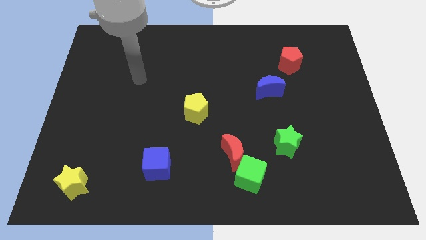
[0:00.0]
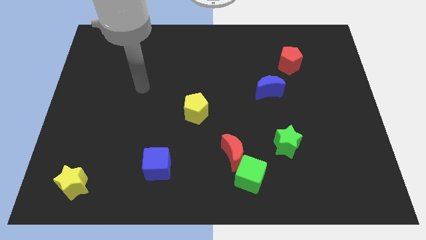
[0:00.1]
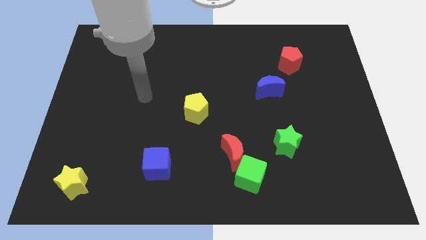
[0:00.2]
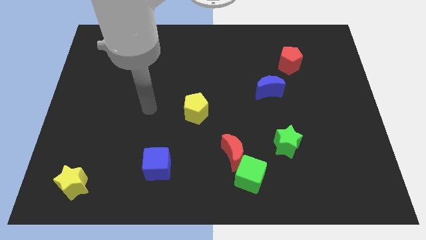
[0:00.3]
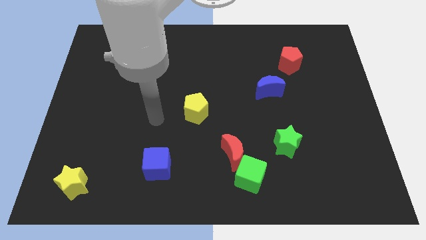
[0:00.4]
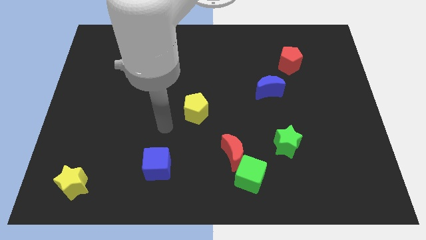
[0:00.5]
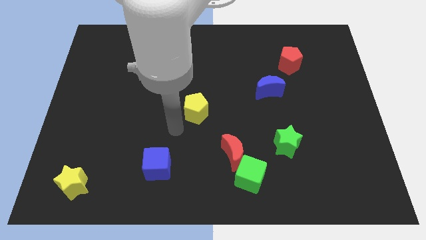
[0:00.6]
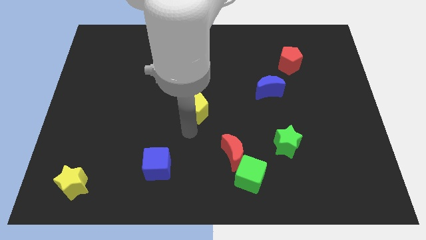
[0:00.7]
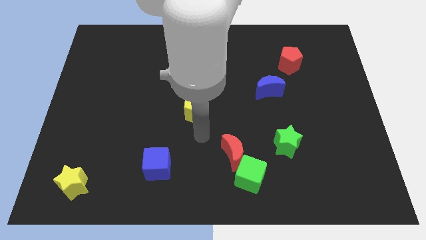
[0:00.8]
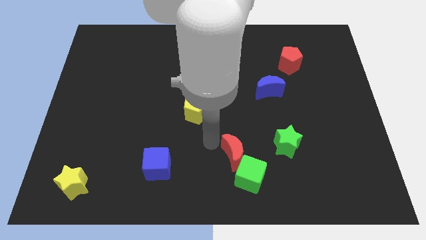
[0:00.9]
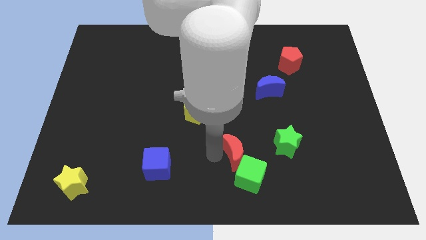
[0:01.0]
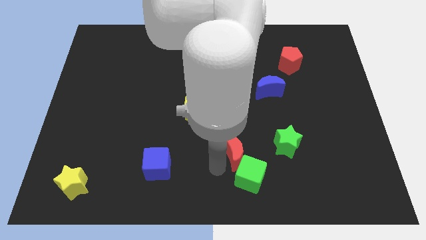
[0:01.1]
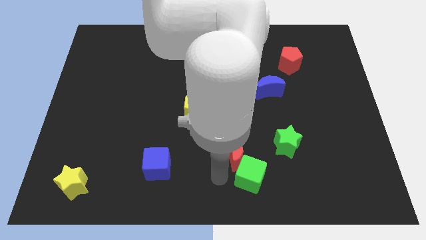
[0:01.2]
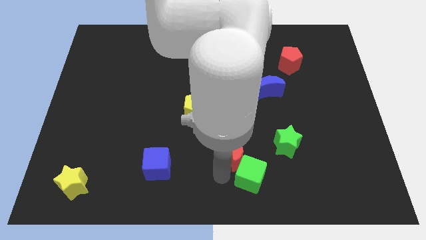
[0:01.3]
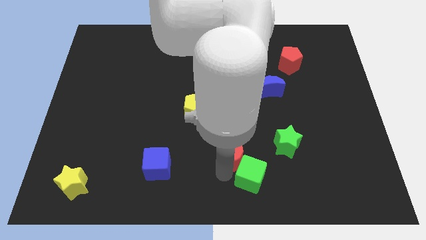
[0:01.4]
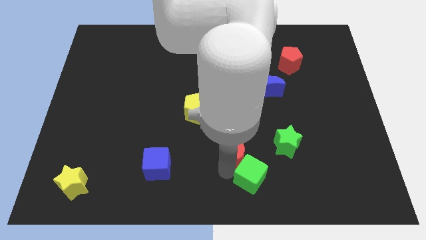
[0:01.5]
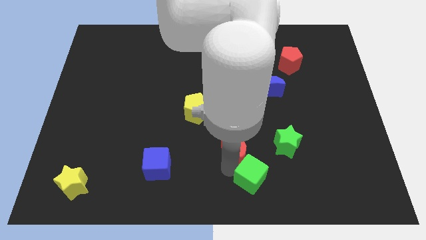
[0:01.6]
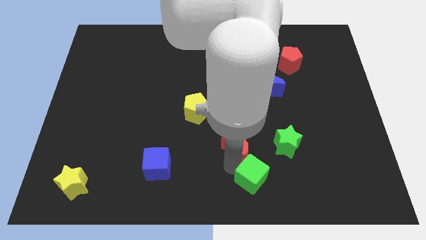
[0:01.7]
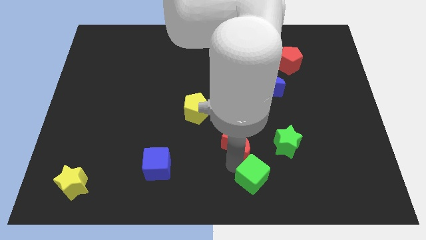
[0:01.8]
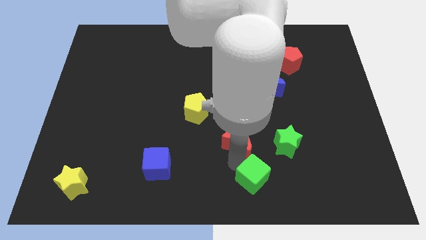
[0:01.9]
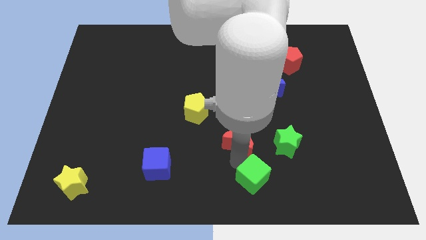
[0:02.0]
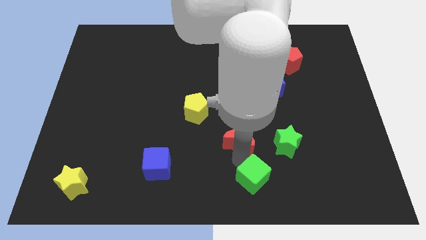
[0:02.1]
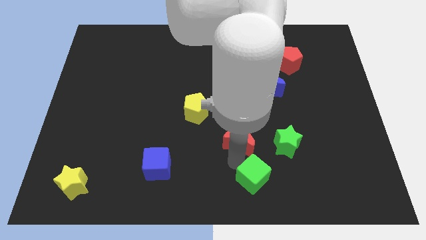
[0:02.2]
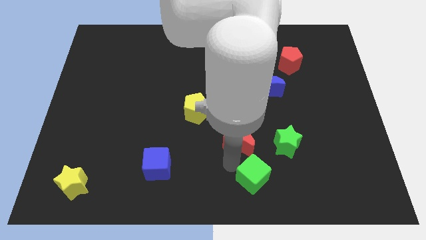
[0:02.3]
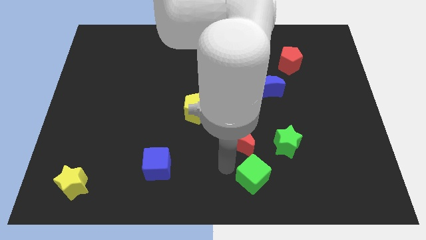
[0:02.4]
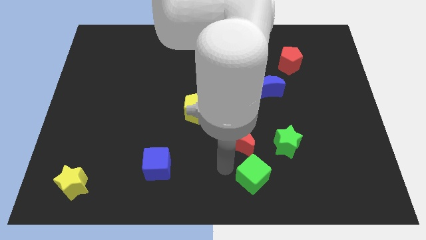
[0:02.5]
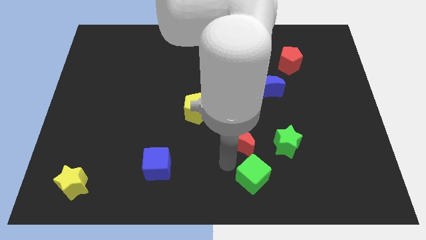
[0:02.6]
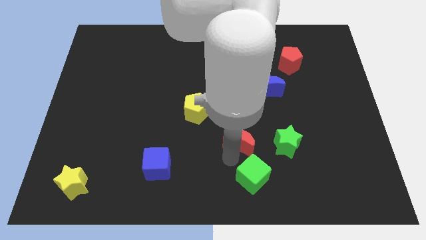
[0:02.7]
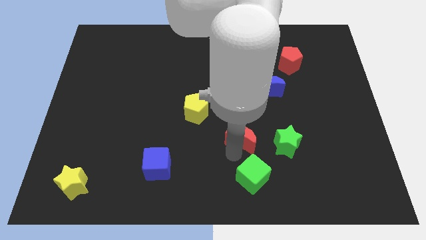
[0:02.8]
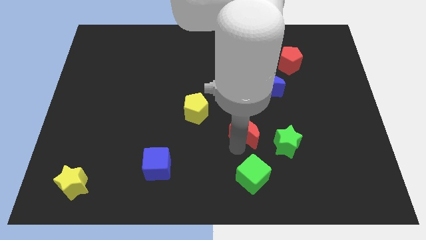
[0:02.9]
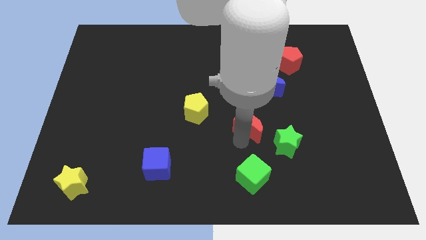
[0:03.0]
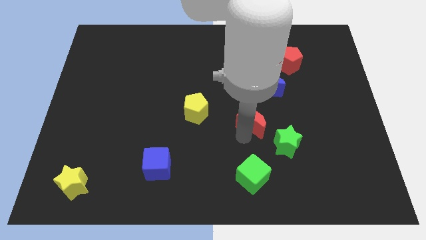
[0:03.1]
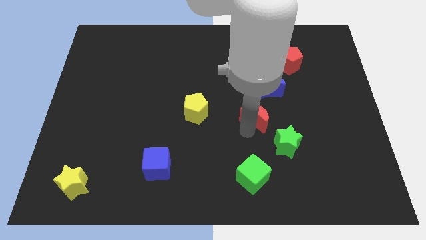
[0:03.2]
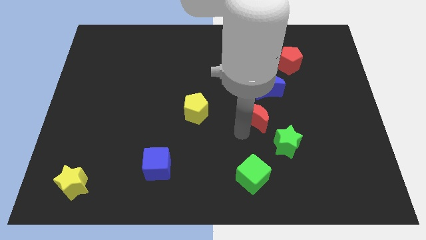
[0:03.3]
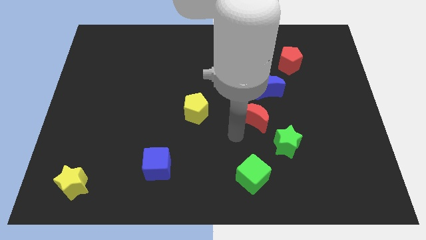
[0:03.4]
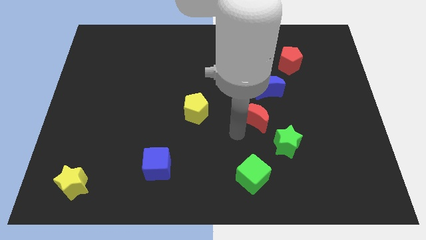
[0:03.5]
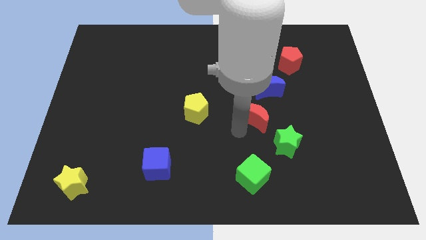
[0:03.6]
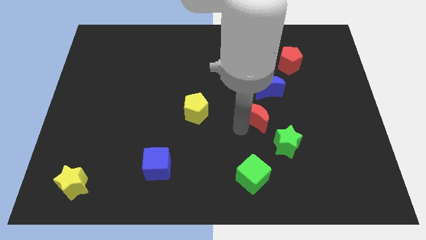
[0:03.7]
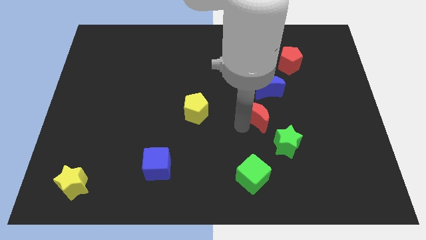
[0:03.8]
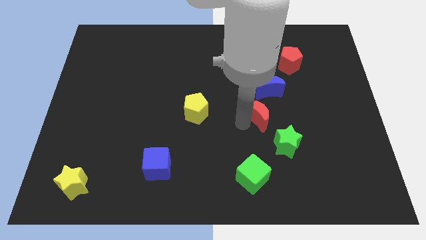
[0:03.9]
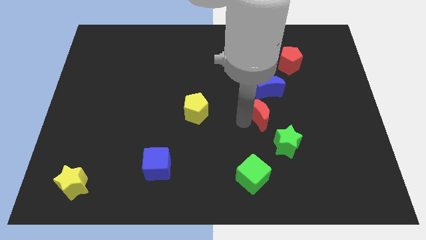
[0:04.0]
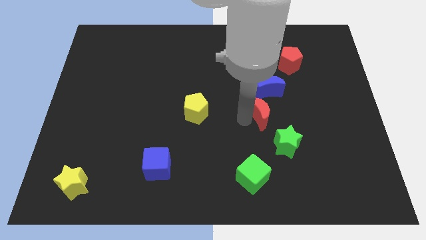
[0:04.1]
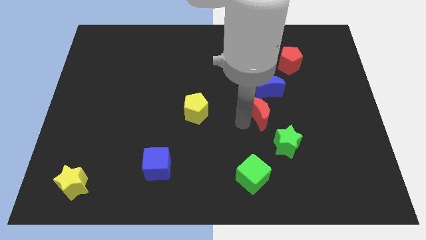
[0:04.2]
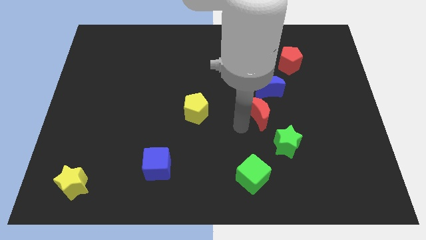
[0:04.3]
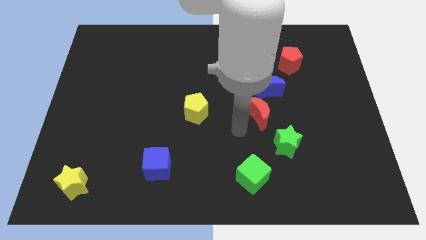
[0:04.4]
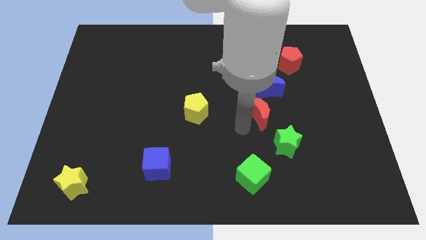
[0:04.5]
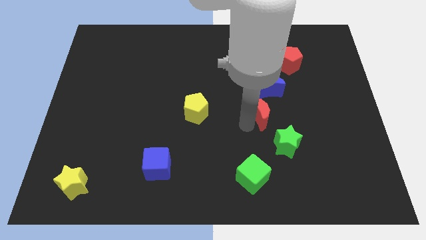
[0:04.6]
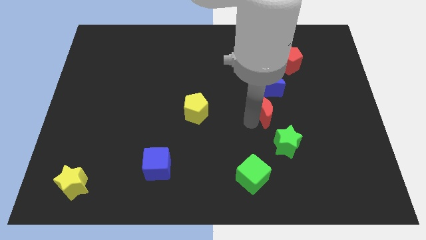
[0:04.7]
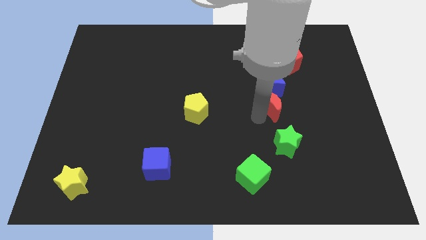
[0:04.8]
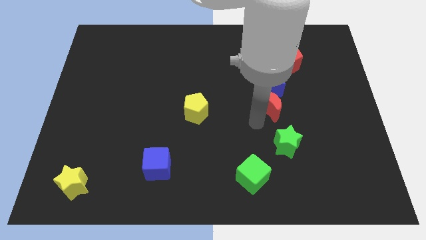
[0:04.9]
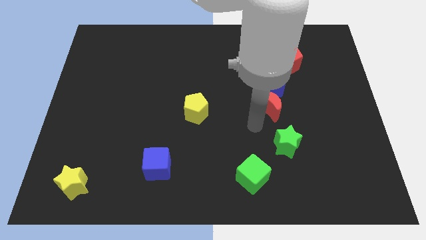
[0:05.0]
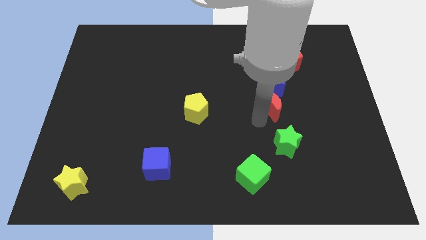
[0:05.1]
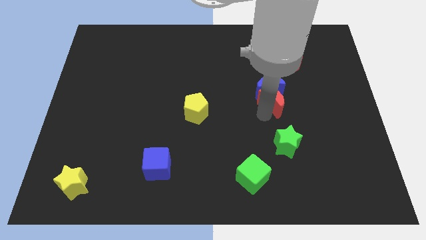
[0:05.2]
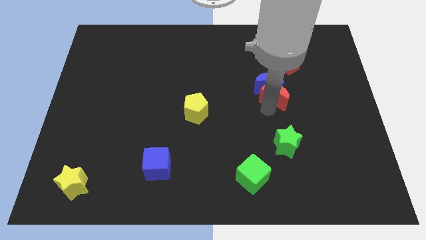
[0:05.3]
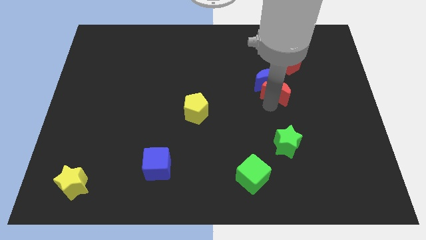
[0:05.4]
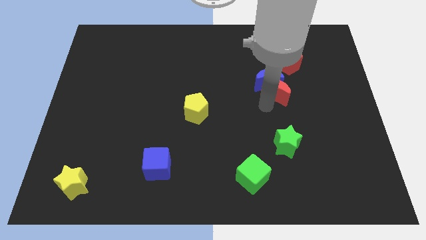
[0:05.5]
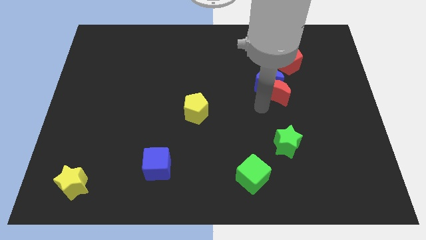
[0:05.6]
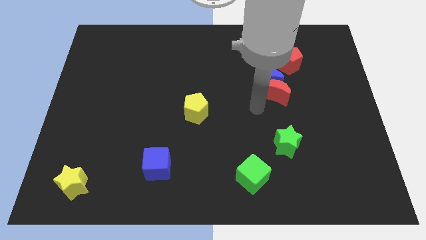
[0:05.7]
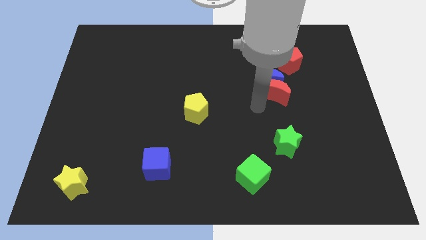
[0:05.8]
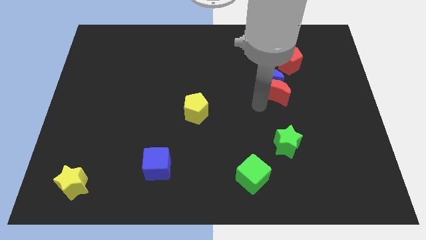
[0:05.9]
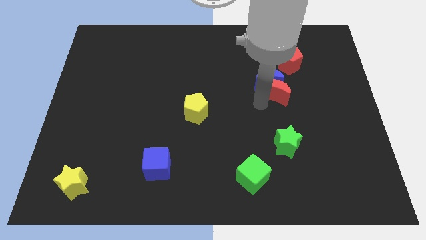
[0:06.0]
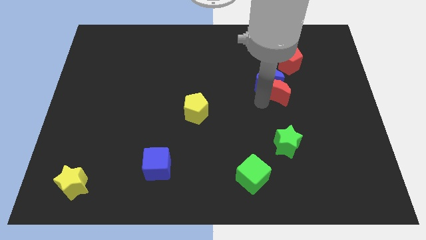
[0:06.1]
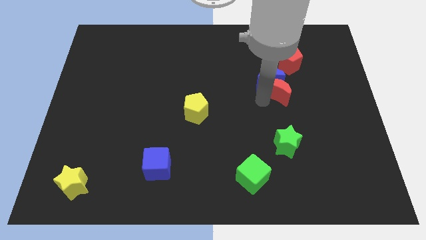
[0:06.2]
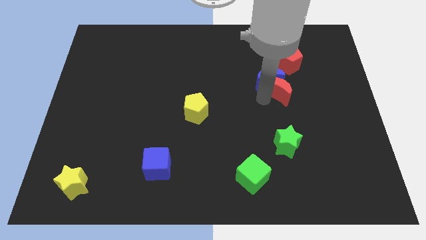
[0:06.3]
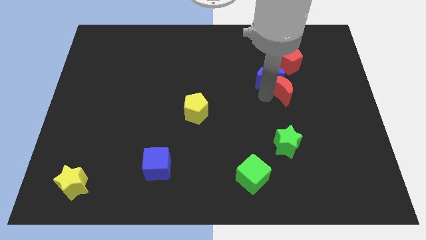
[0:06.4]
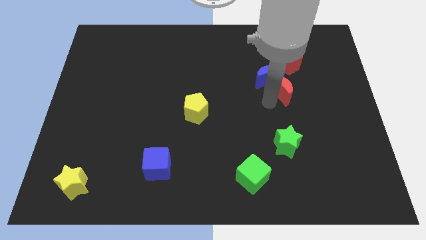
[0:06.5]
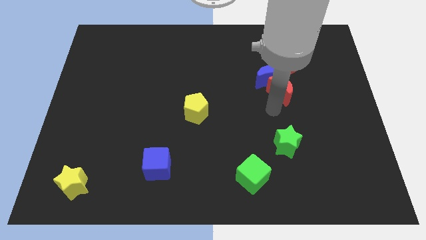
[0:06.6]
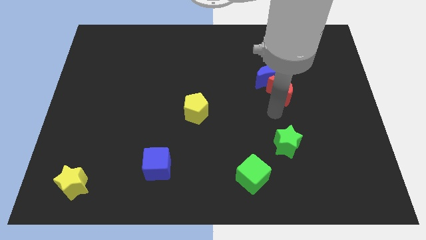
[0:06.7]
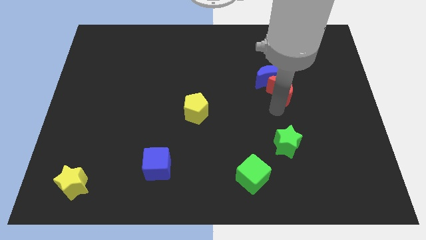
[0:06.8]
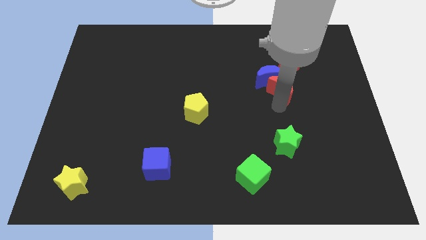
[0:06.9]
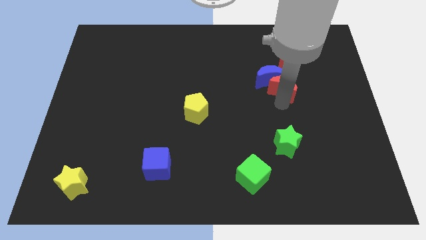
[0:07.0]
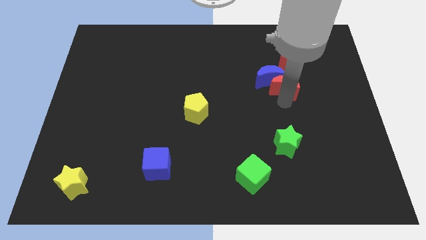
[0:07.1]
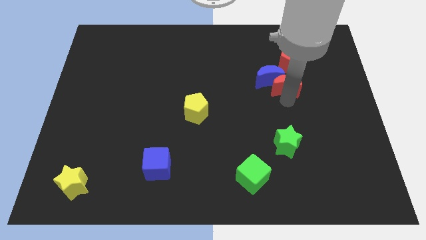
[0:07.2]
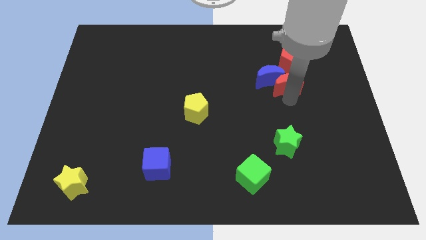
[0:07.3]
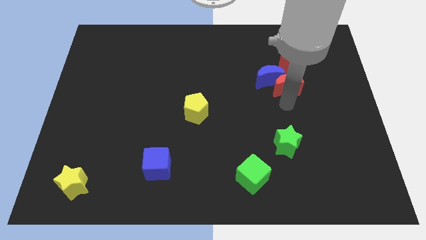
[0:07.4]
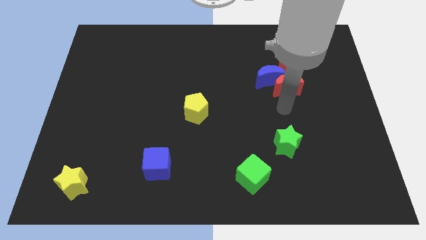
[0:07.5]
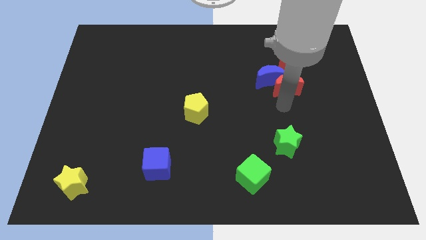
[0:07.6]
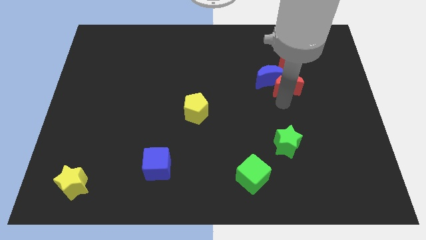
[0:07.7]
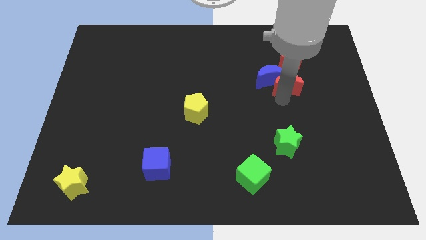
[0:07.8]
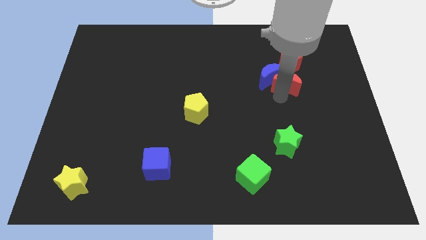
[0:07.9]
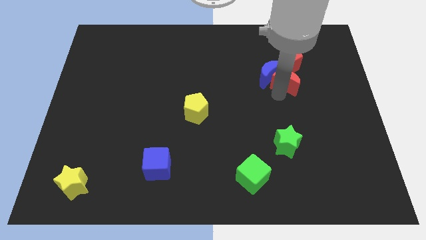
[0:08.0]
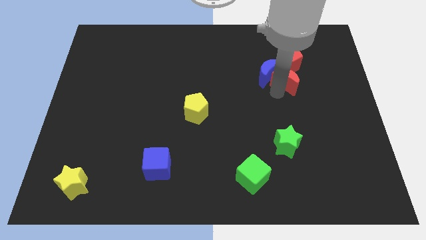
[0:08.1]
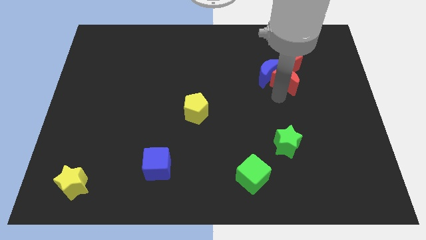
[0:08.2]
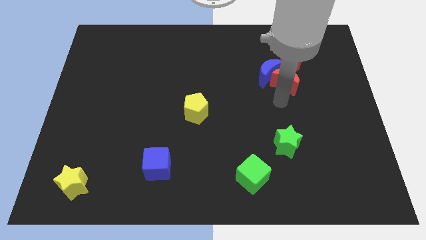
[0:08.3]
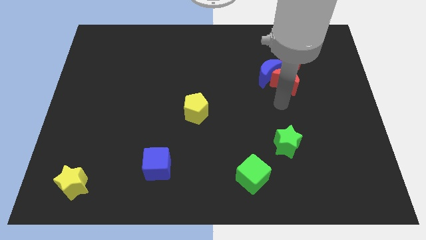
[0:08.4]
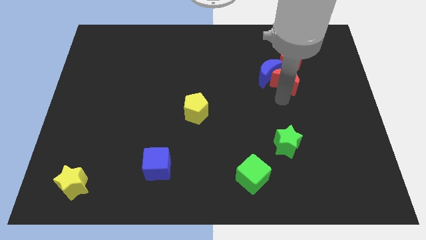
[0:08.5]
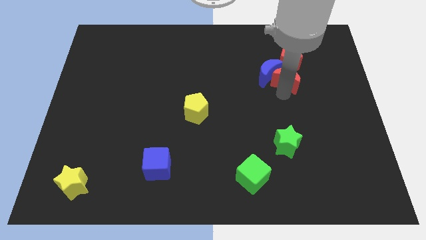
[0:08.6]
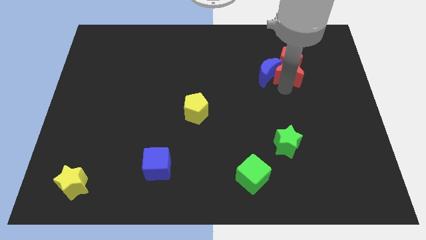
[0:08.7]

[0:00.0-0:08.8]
slide the red moon towards the red pentagon
